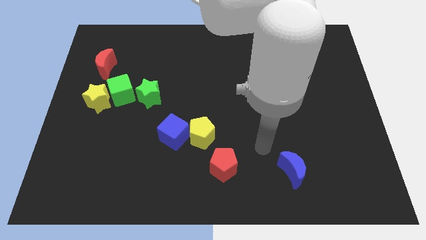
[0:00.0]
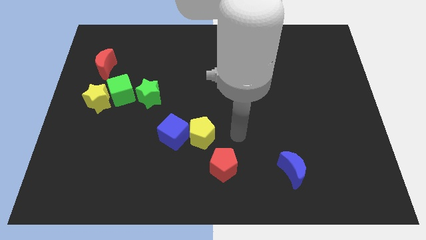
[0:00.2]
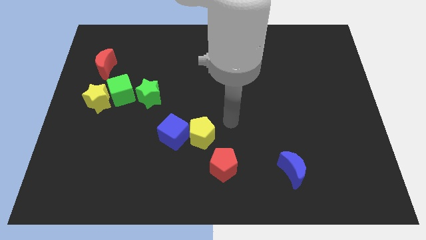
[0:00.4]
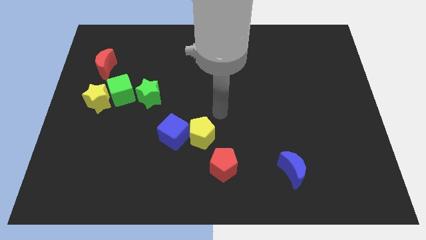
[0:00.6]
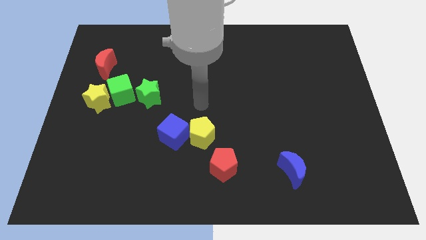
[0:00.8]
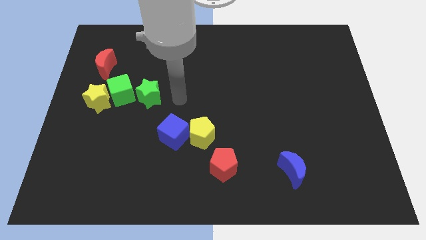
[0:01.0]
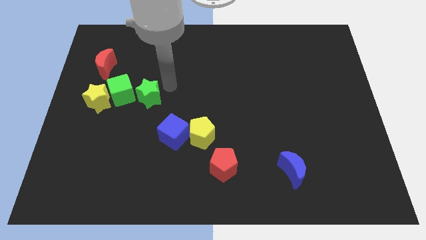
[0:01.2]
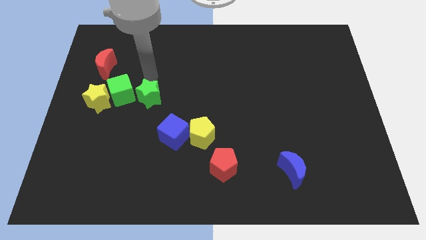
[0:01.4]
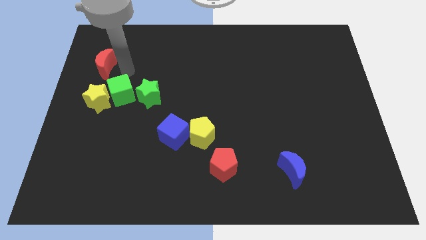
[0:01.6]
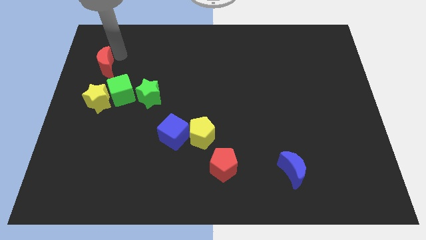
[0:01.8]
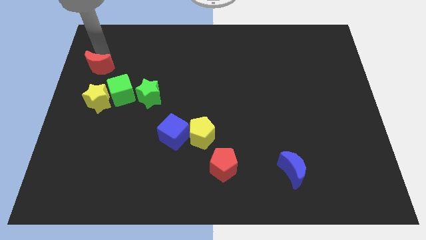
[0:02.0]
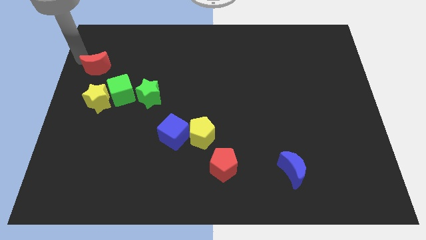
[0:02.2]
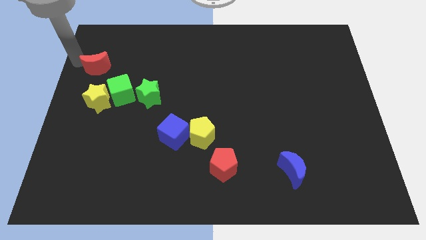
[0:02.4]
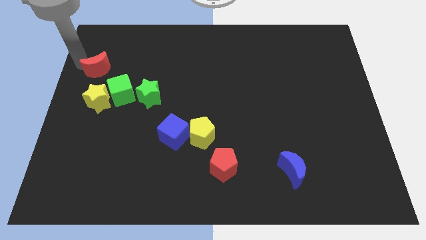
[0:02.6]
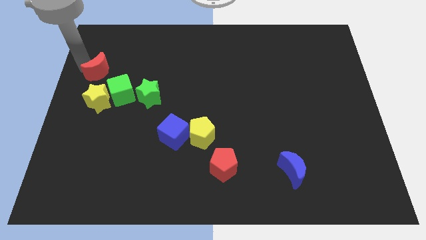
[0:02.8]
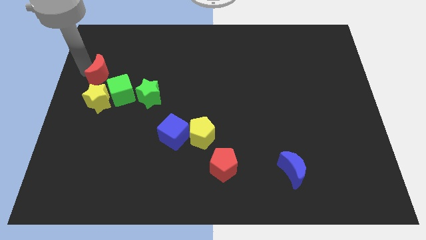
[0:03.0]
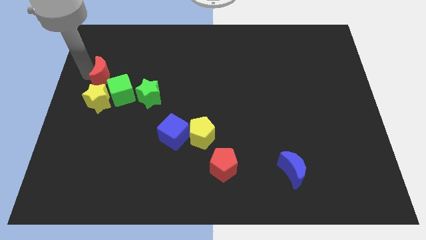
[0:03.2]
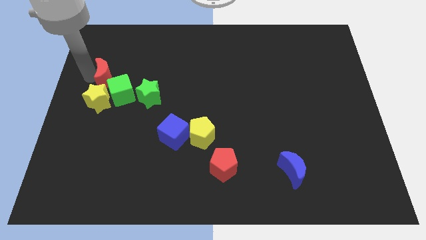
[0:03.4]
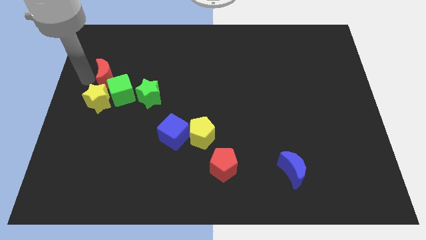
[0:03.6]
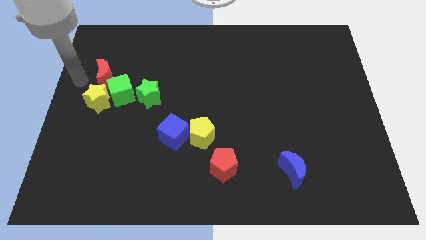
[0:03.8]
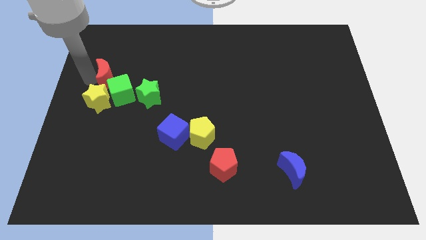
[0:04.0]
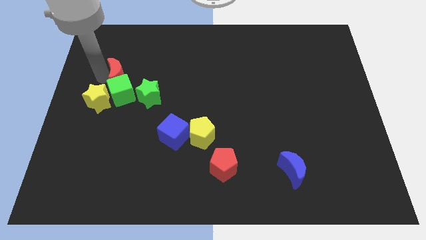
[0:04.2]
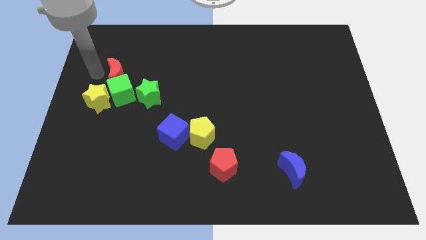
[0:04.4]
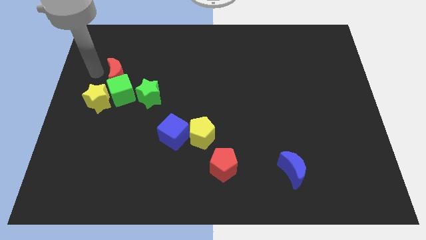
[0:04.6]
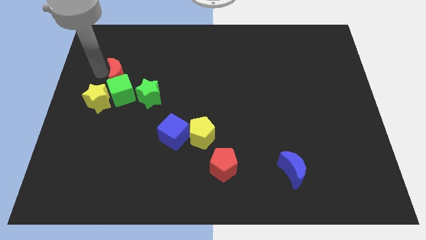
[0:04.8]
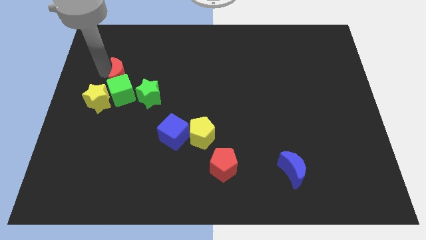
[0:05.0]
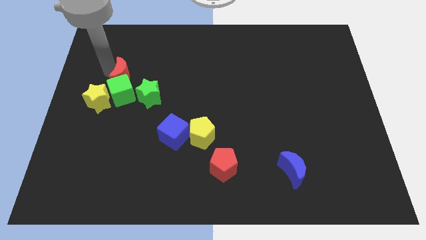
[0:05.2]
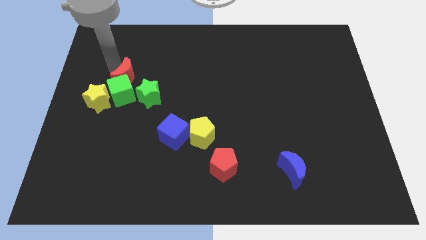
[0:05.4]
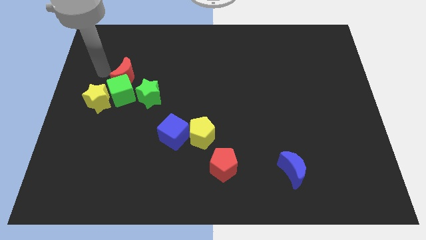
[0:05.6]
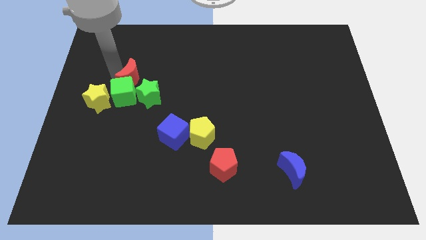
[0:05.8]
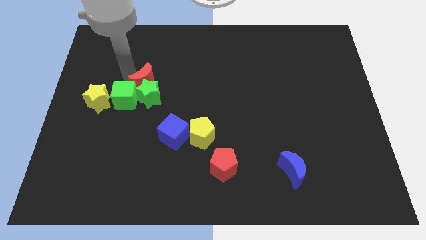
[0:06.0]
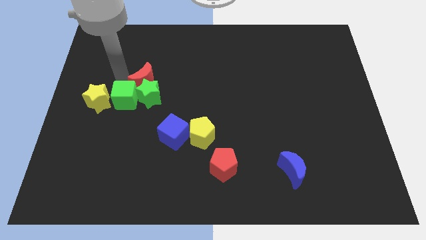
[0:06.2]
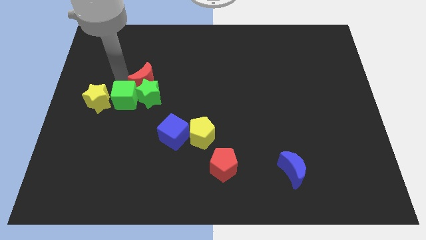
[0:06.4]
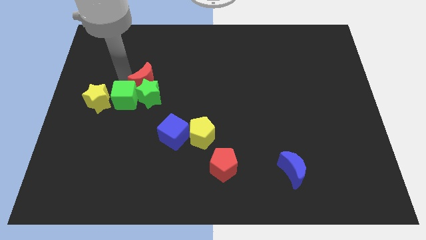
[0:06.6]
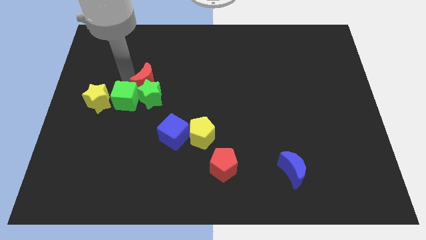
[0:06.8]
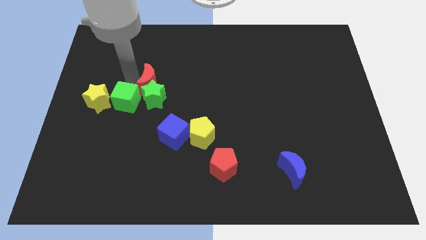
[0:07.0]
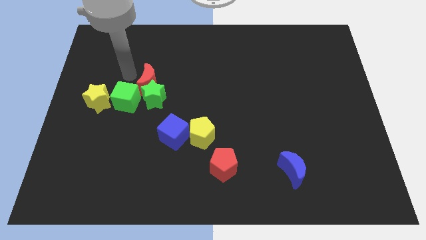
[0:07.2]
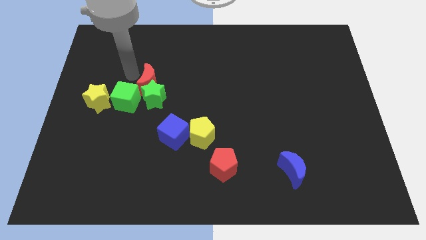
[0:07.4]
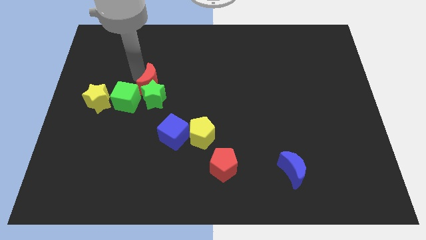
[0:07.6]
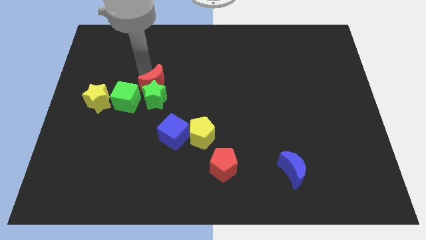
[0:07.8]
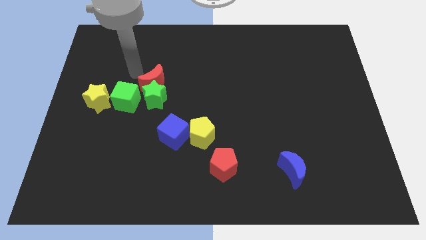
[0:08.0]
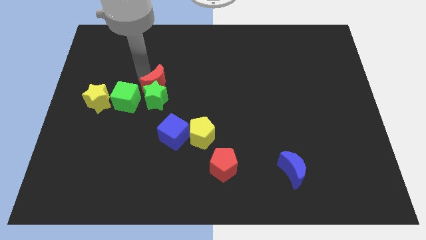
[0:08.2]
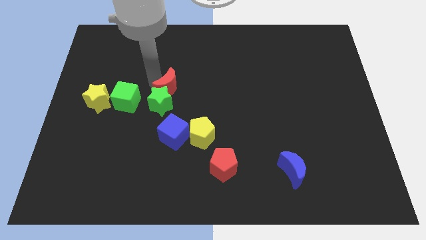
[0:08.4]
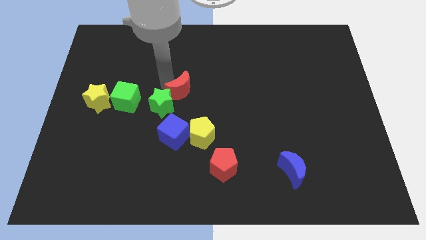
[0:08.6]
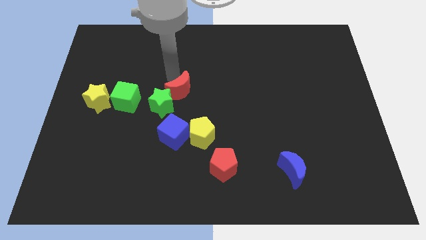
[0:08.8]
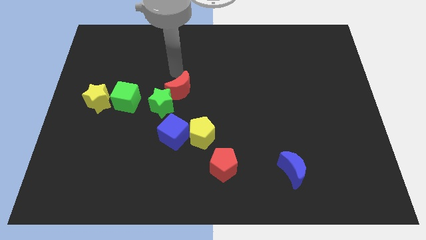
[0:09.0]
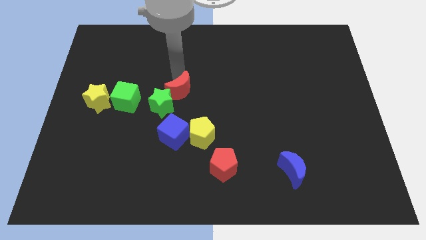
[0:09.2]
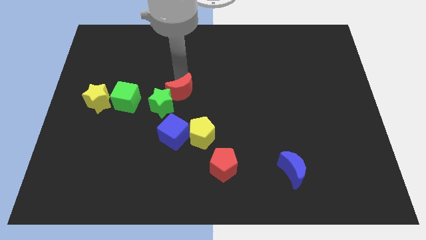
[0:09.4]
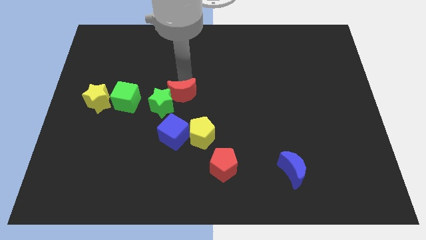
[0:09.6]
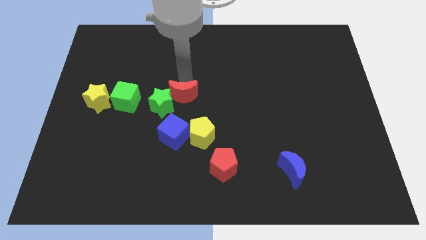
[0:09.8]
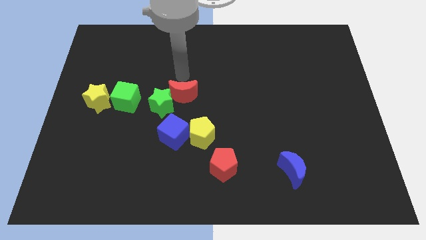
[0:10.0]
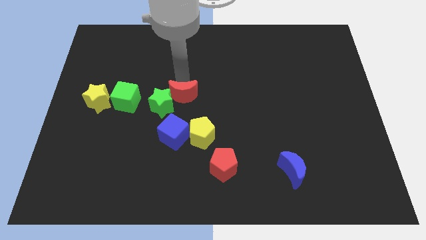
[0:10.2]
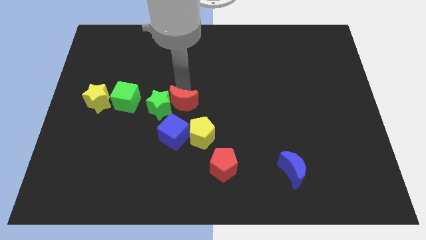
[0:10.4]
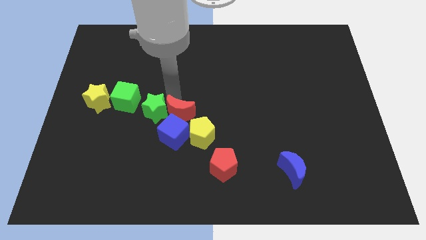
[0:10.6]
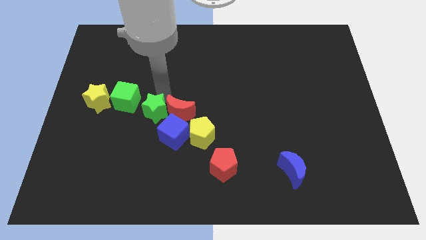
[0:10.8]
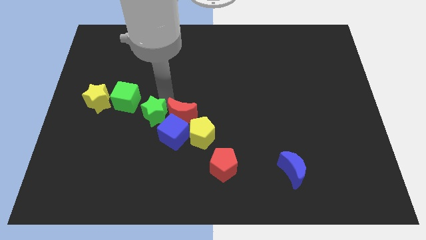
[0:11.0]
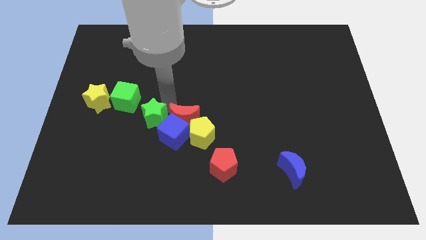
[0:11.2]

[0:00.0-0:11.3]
push the red moon to the yellow pentagon

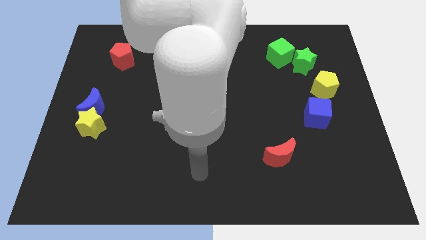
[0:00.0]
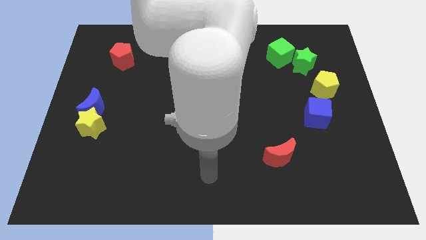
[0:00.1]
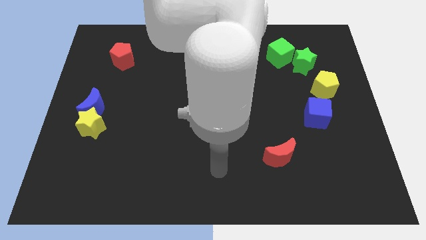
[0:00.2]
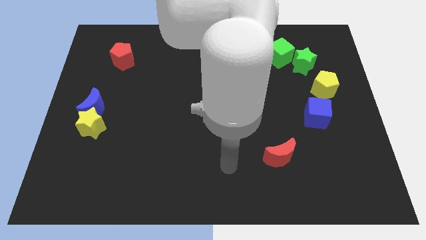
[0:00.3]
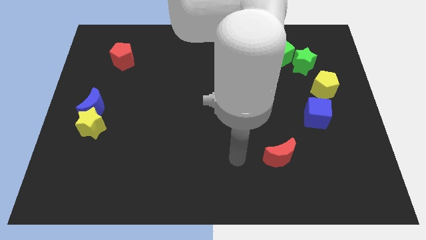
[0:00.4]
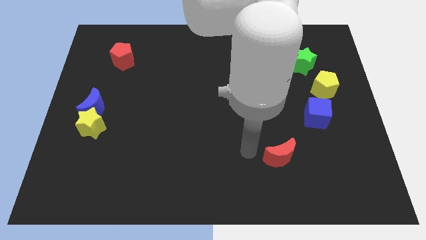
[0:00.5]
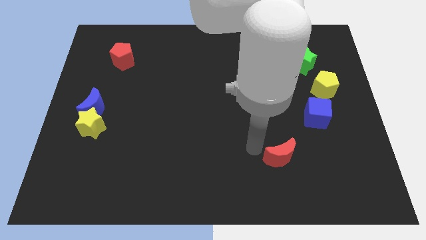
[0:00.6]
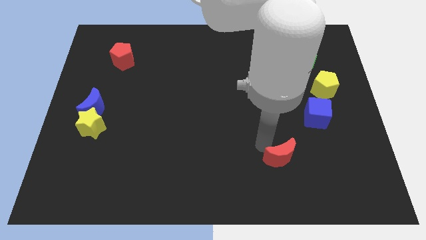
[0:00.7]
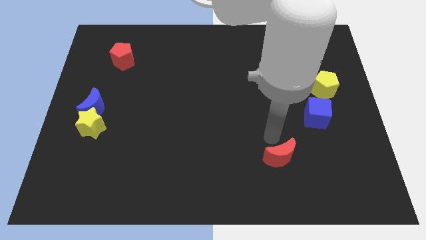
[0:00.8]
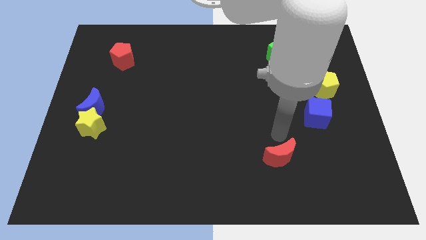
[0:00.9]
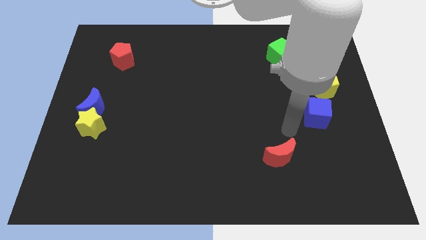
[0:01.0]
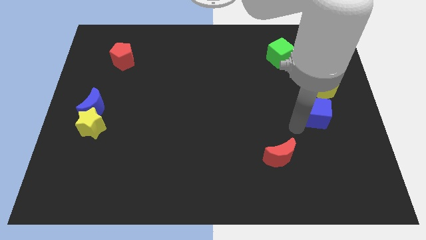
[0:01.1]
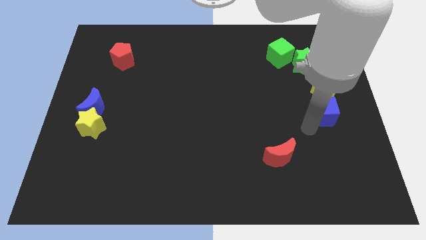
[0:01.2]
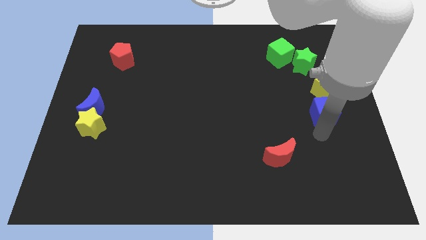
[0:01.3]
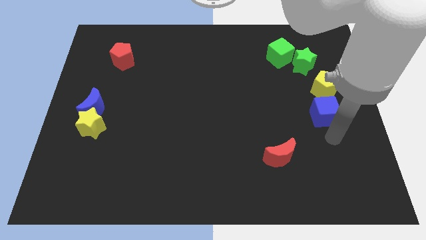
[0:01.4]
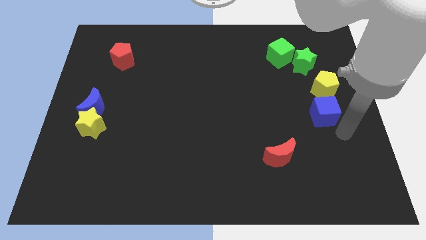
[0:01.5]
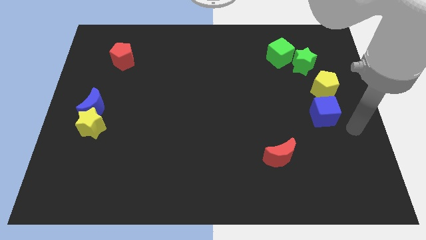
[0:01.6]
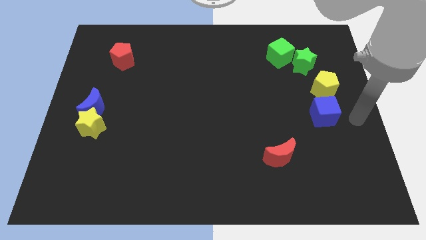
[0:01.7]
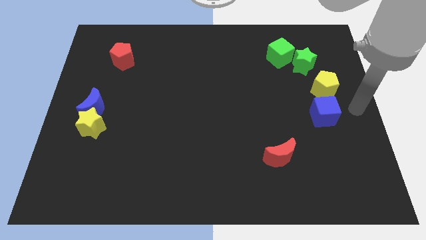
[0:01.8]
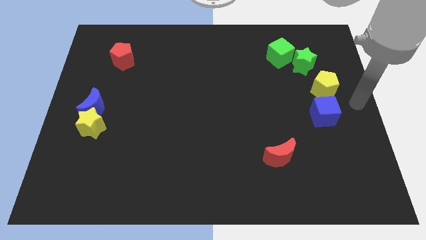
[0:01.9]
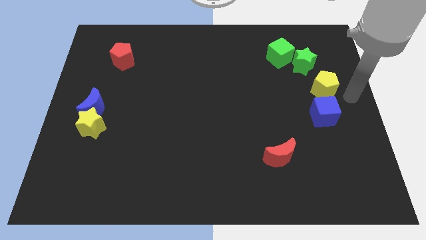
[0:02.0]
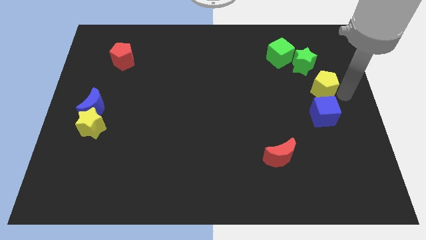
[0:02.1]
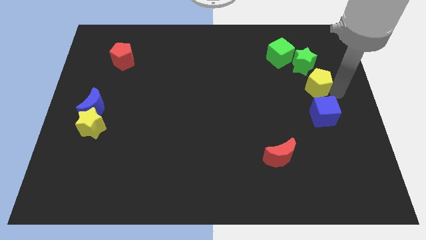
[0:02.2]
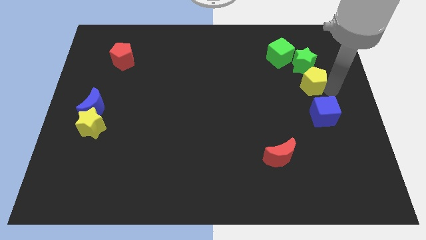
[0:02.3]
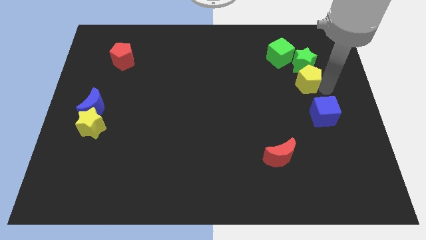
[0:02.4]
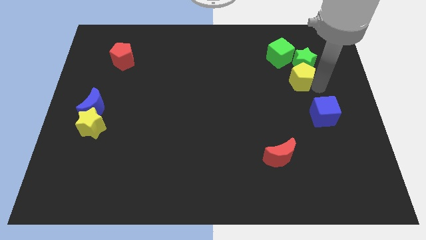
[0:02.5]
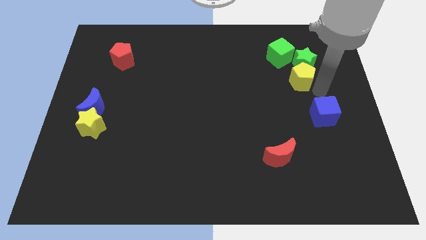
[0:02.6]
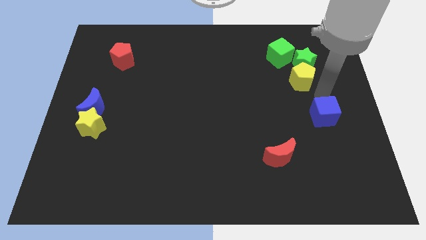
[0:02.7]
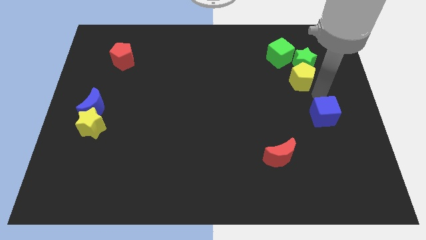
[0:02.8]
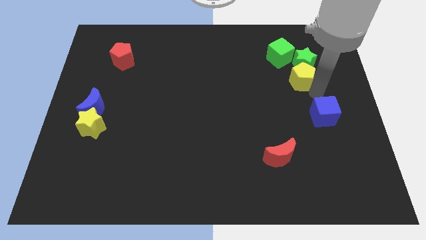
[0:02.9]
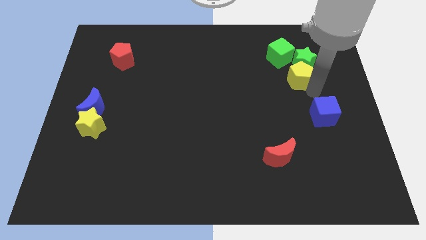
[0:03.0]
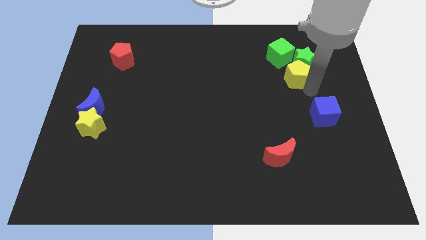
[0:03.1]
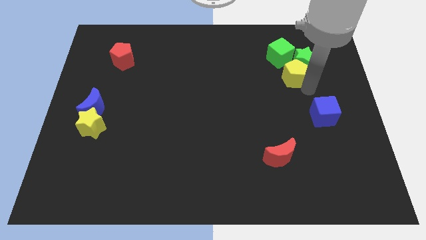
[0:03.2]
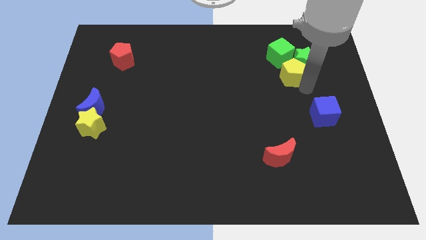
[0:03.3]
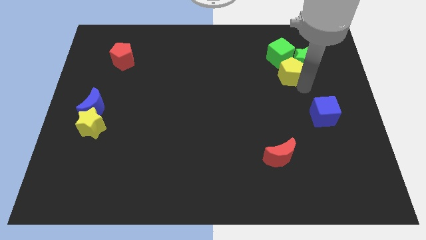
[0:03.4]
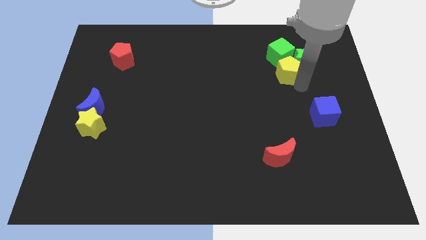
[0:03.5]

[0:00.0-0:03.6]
push the yellow pentagon towards the green cube
